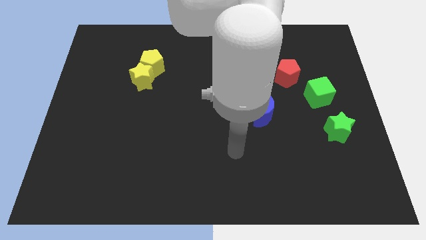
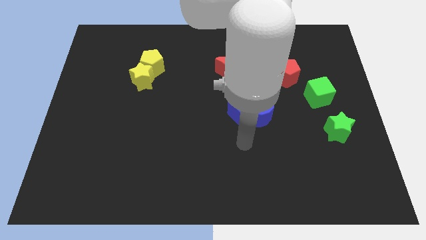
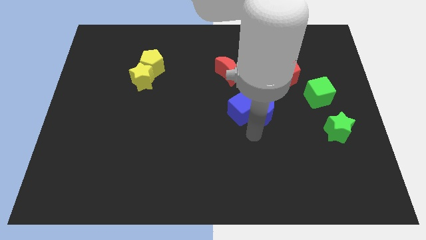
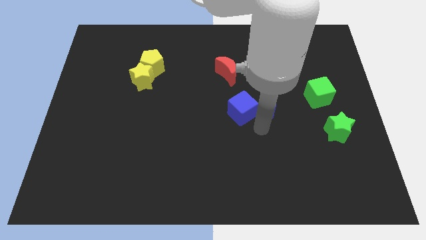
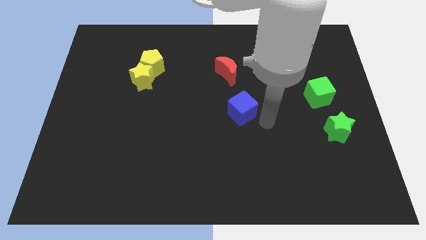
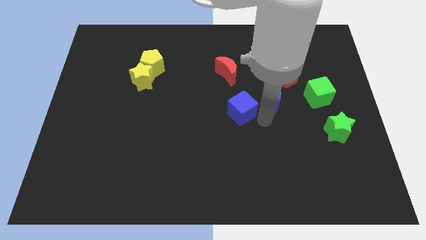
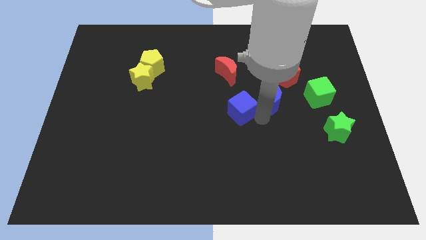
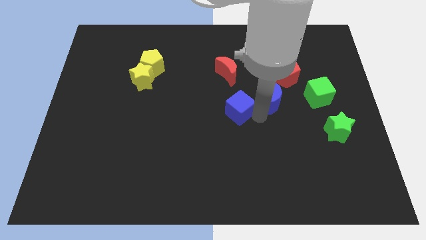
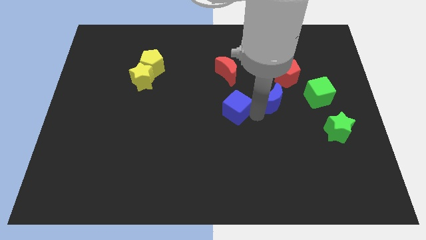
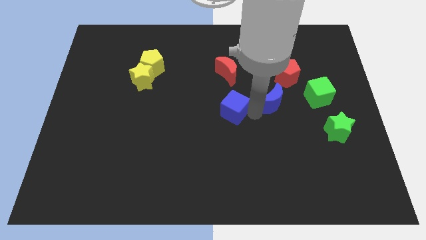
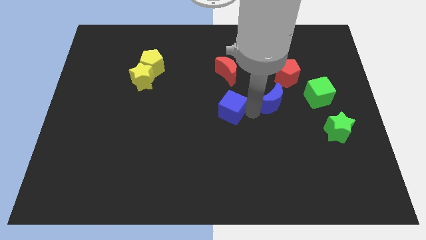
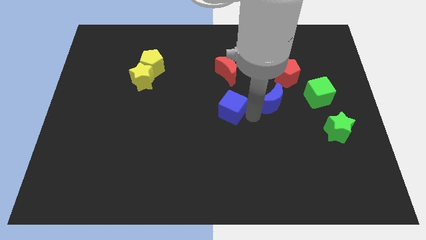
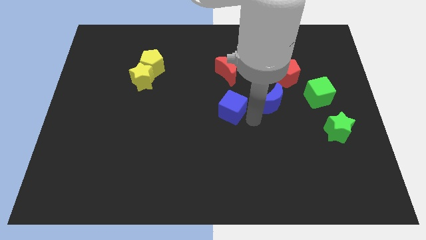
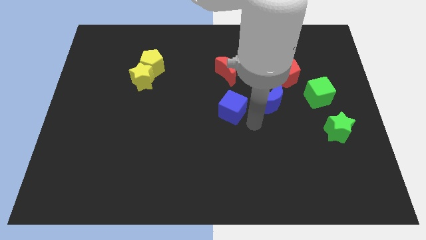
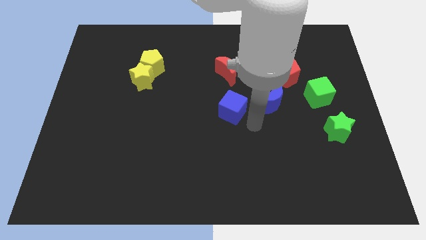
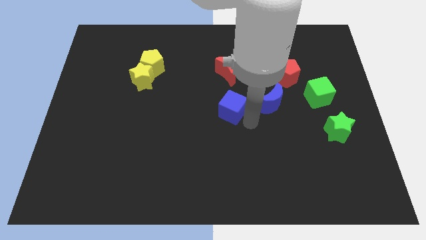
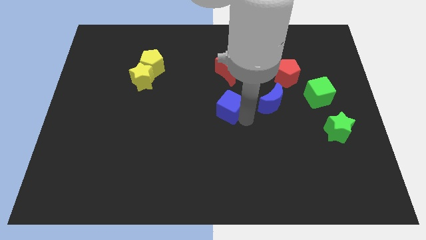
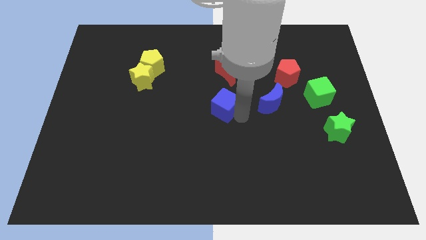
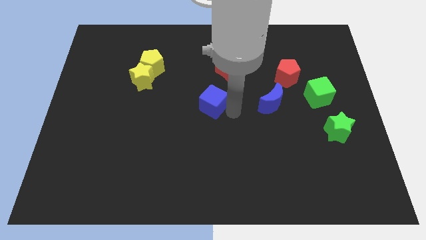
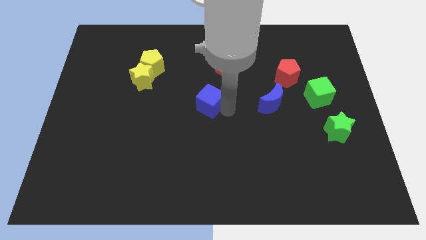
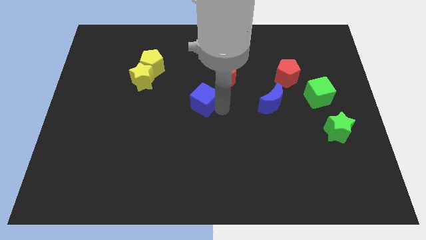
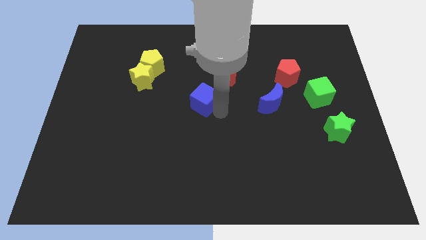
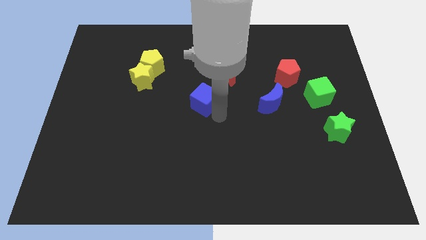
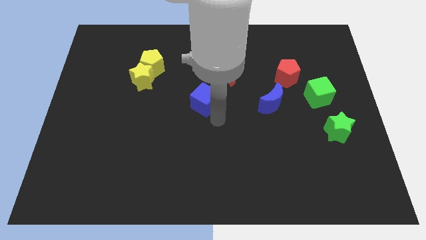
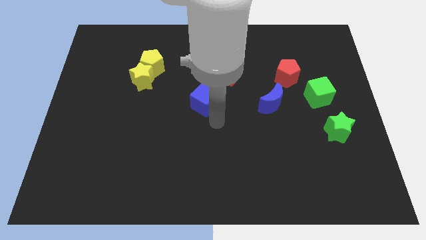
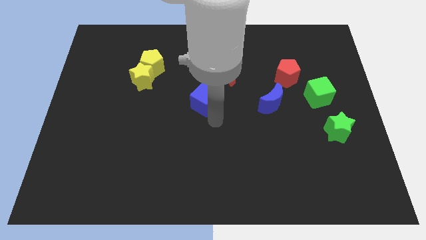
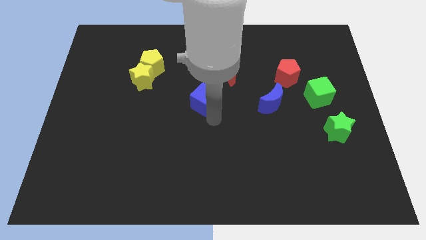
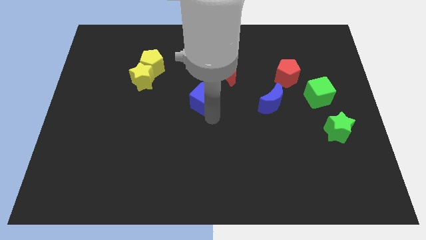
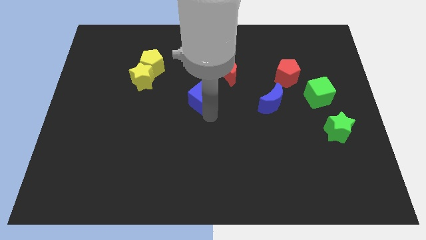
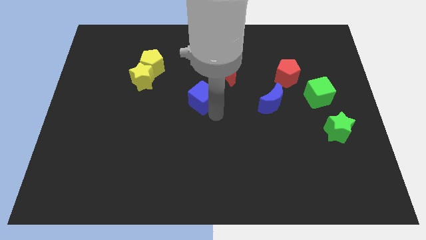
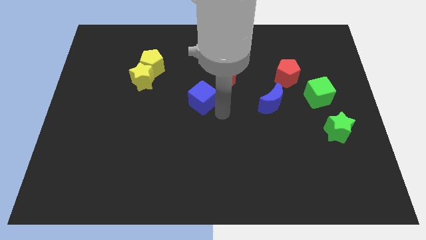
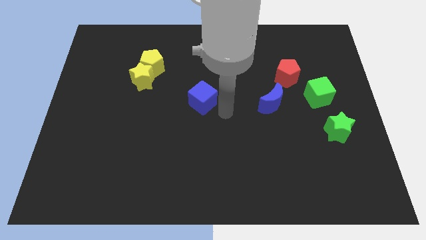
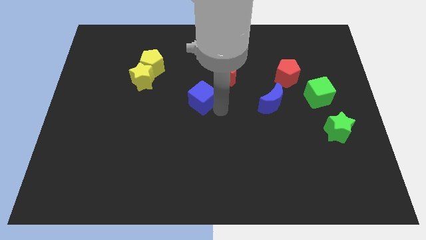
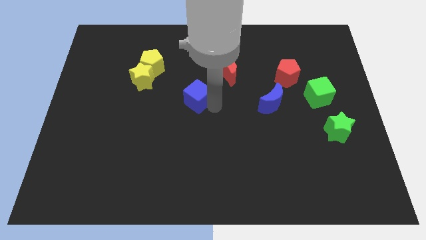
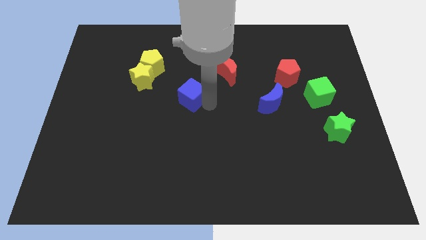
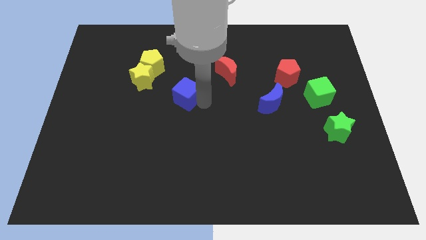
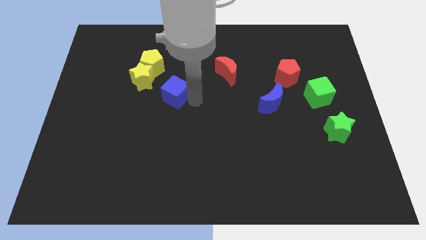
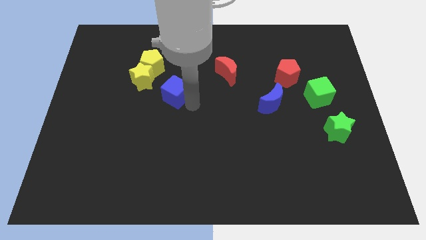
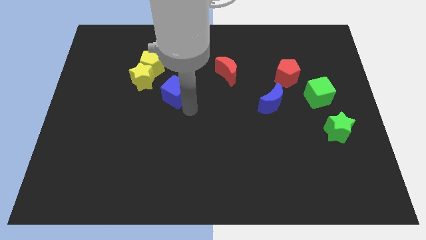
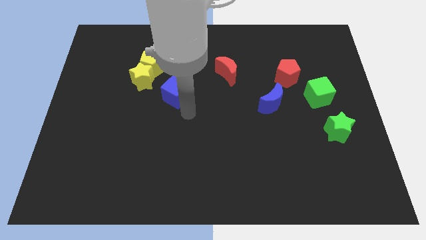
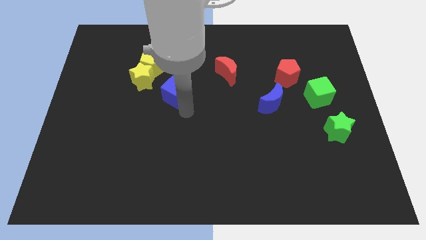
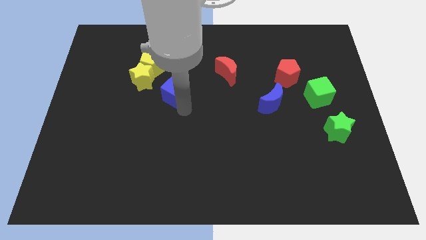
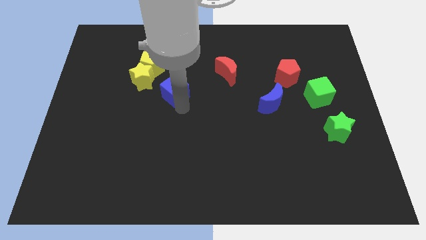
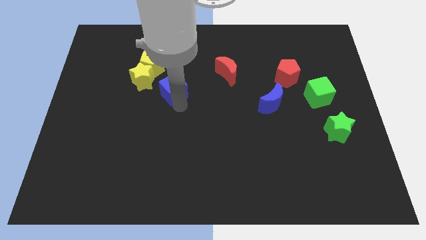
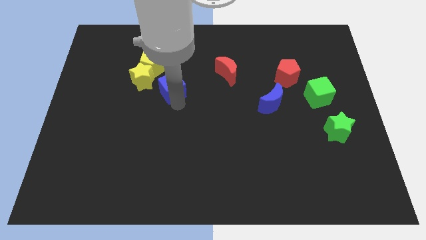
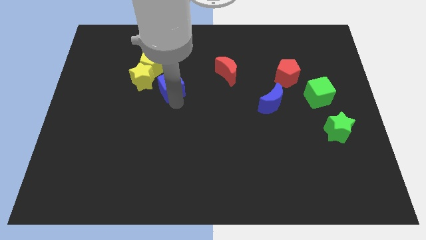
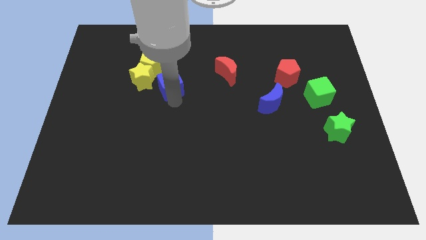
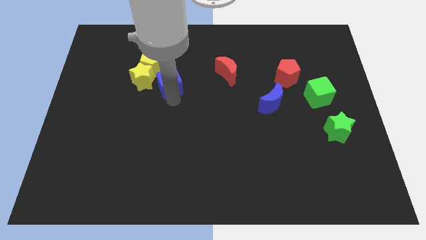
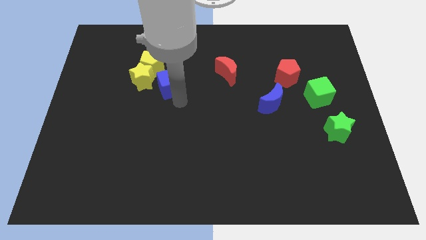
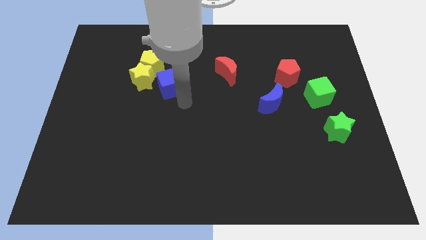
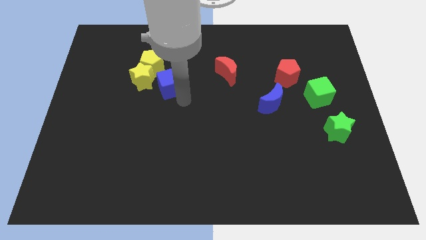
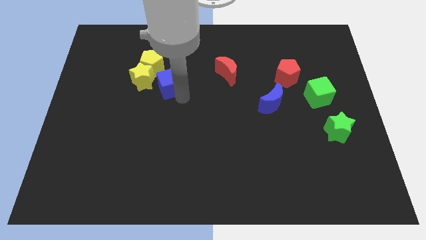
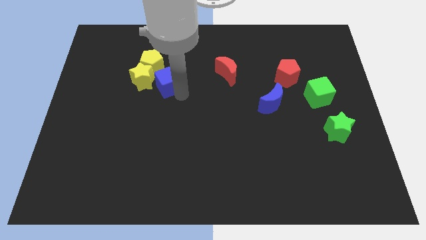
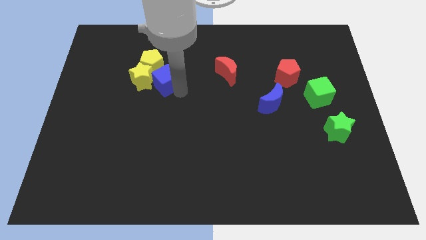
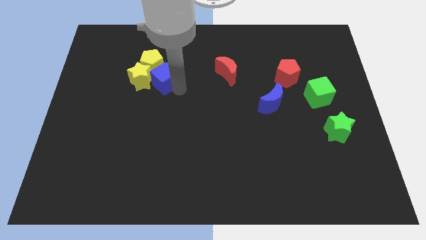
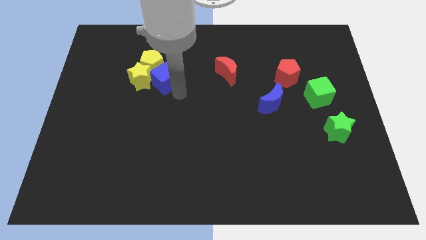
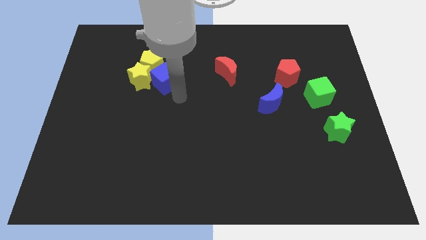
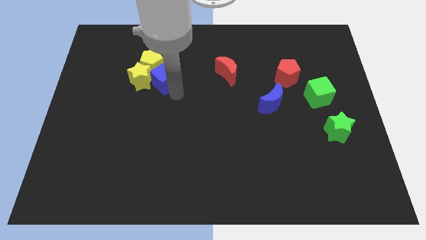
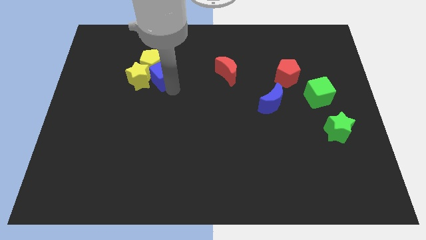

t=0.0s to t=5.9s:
push the blue cube close to the yellow pentagon

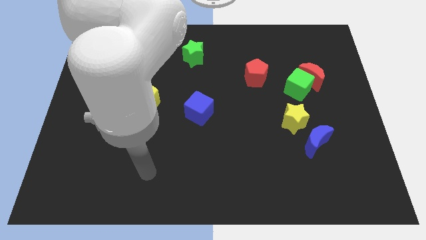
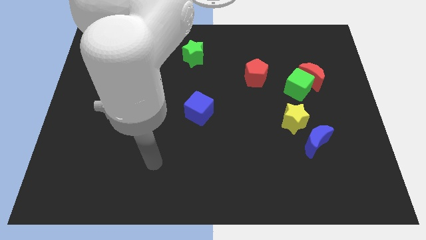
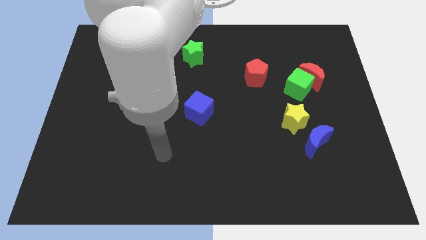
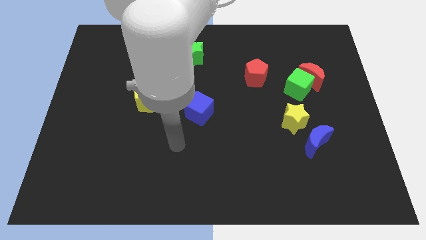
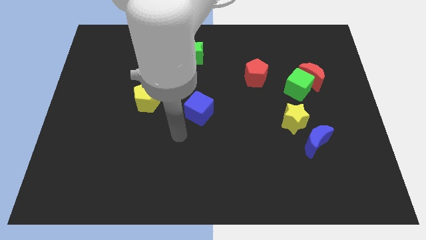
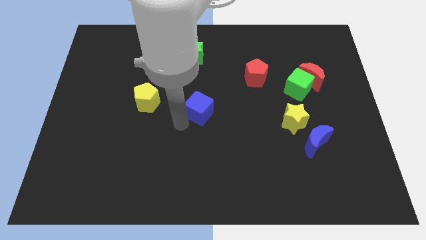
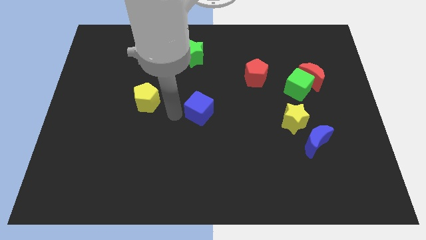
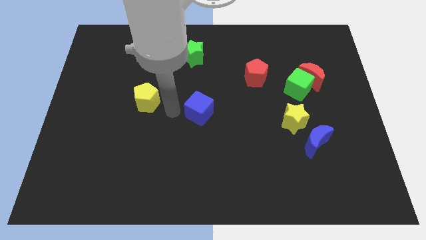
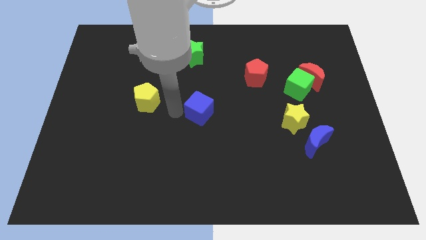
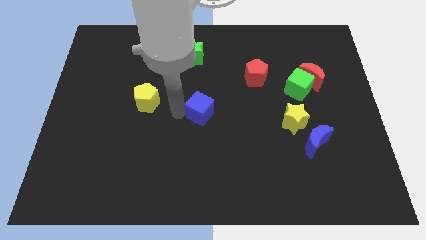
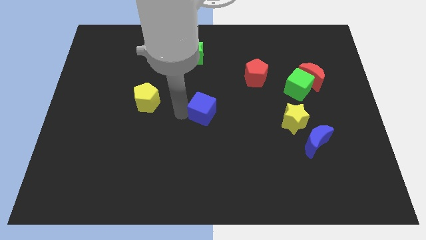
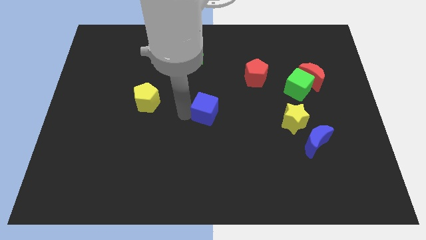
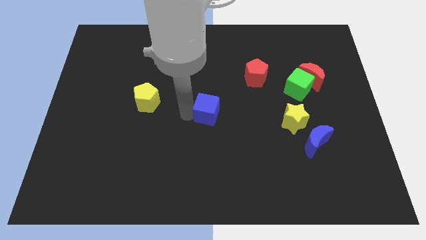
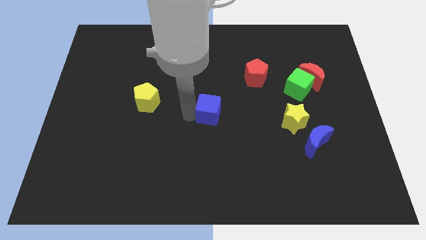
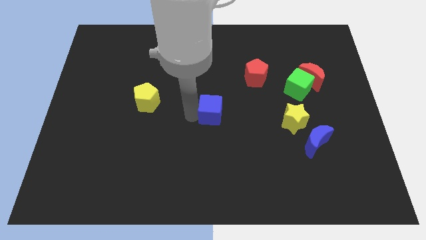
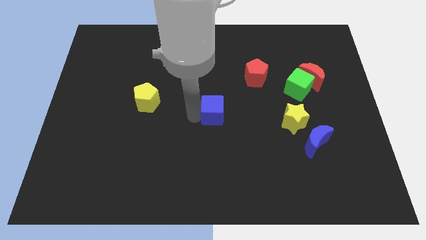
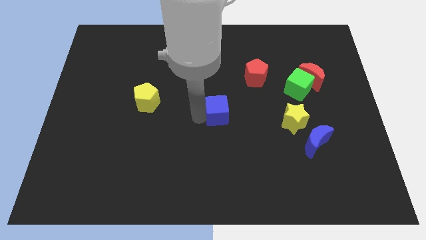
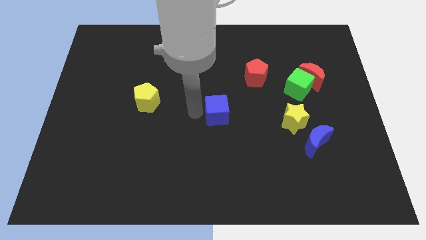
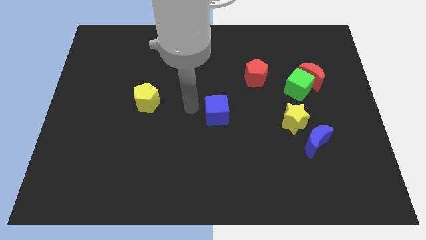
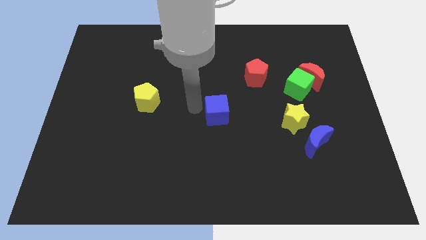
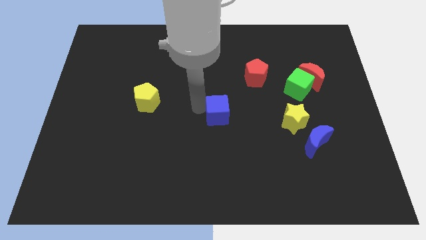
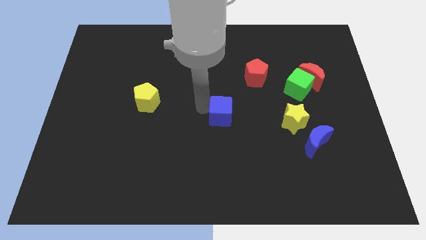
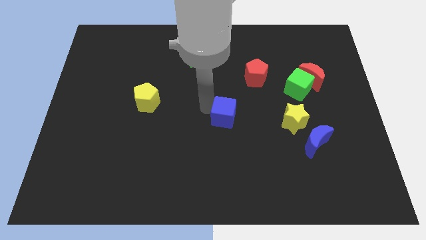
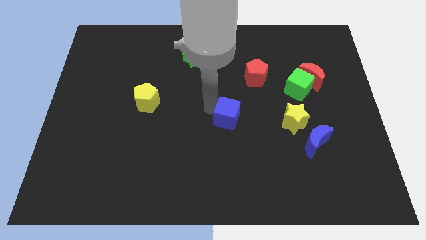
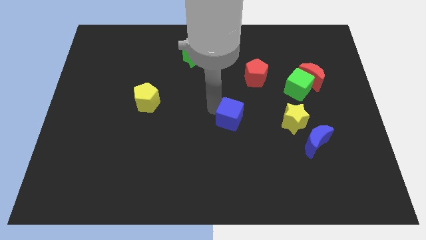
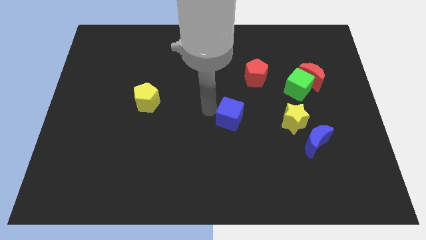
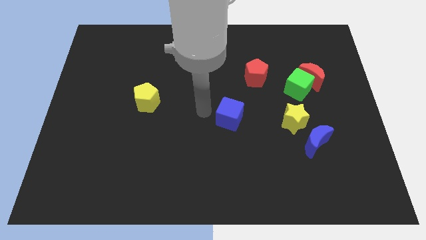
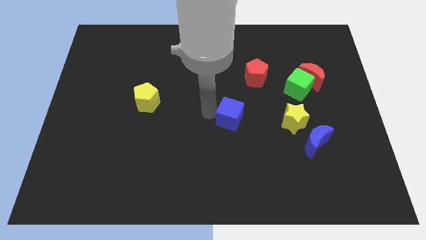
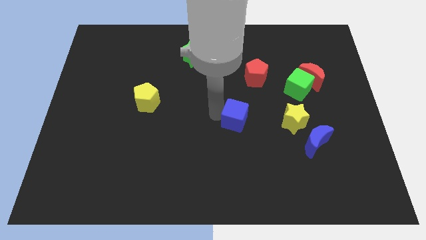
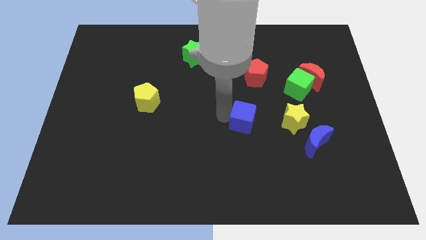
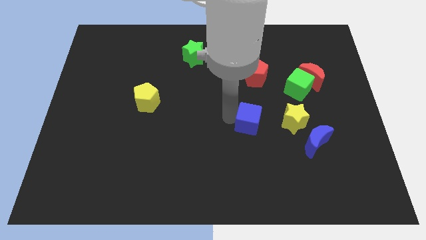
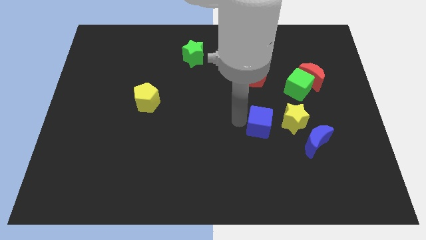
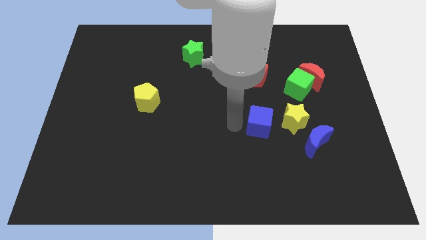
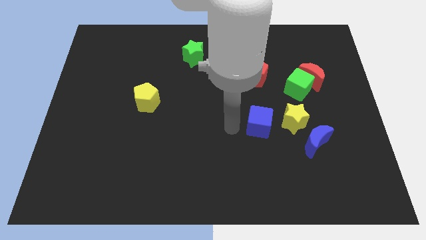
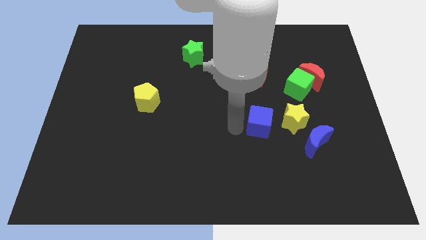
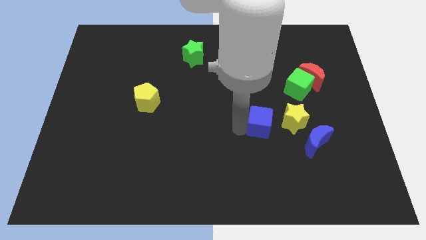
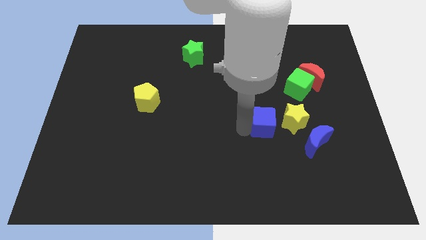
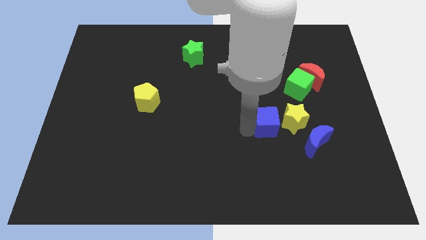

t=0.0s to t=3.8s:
move the blue cube to the yellow star
